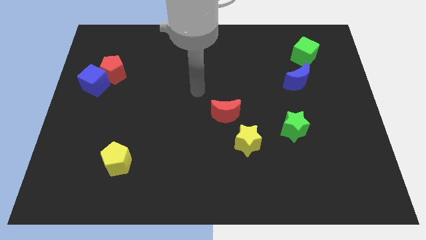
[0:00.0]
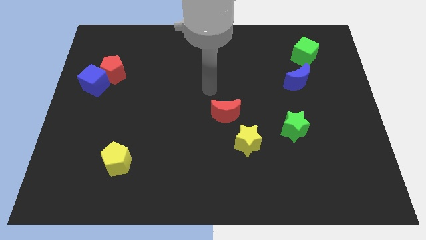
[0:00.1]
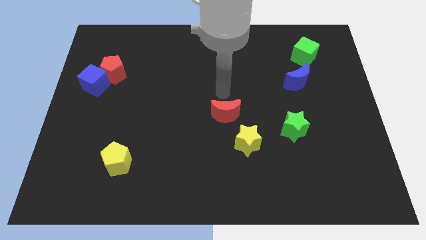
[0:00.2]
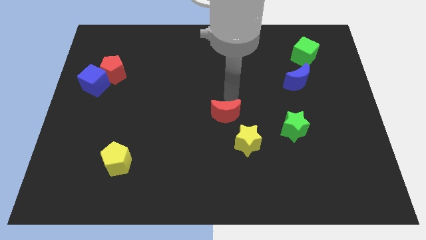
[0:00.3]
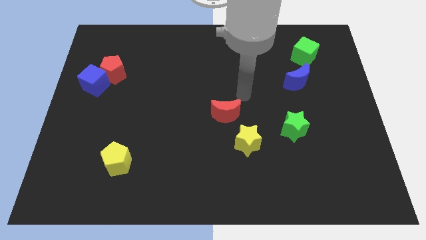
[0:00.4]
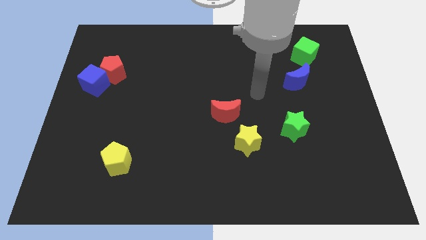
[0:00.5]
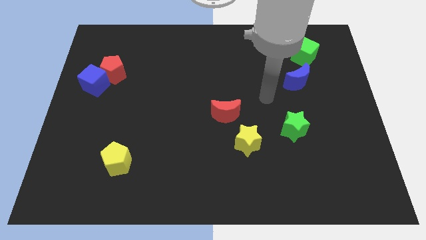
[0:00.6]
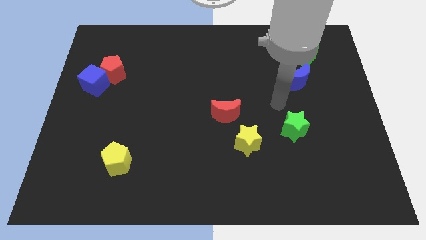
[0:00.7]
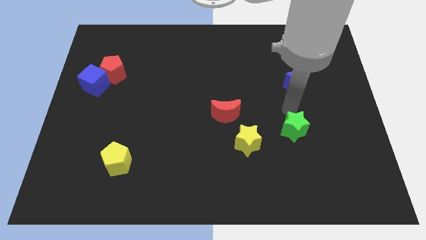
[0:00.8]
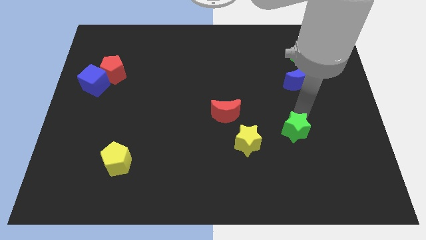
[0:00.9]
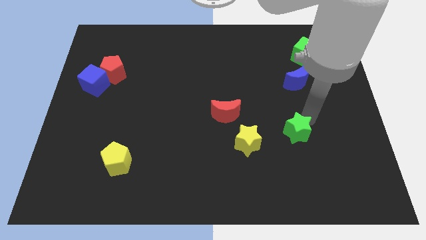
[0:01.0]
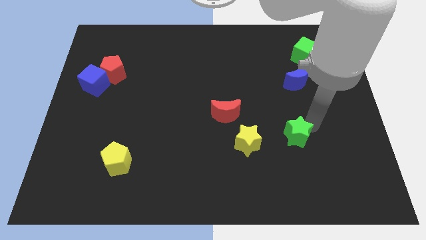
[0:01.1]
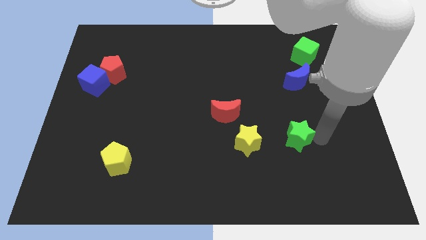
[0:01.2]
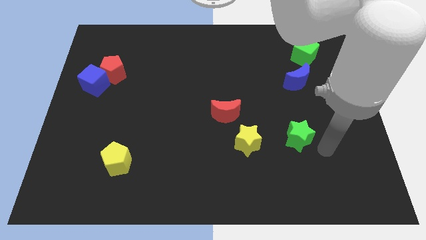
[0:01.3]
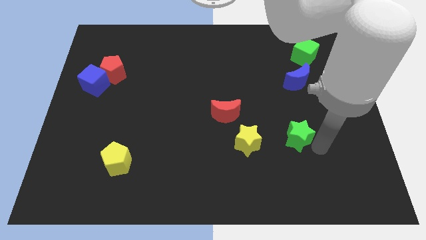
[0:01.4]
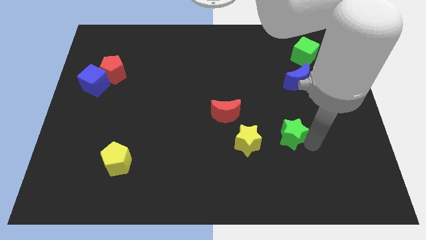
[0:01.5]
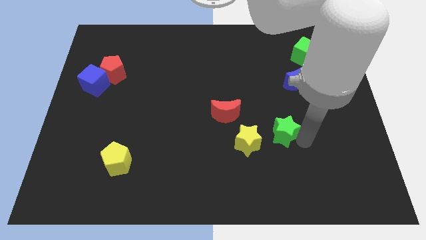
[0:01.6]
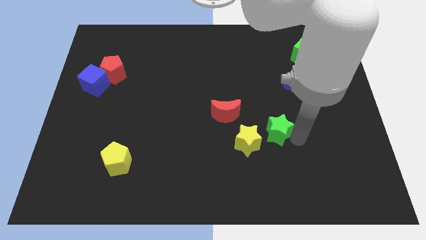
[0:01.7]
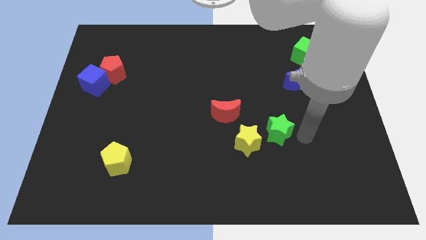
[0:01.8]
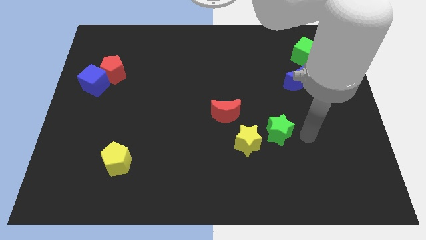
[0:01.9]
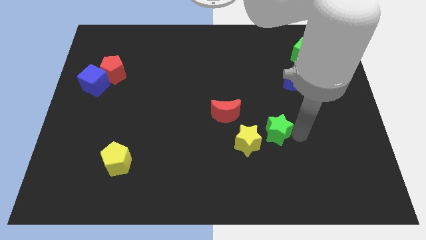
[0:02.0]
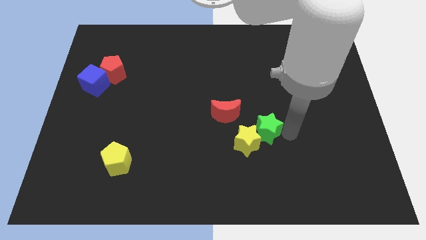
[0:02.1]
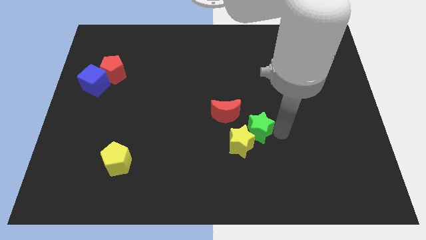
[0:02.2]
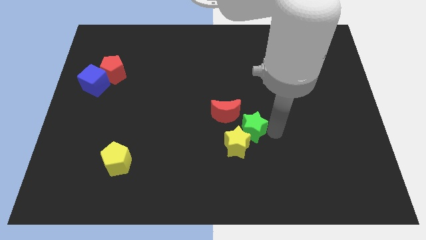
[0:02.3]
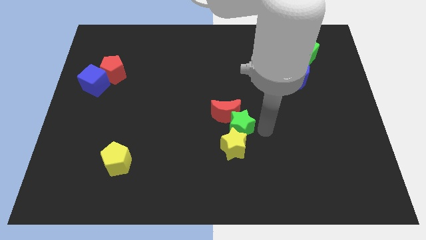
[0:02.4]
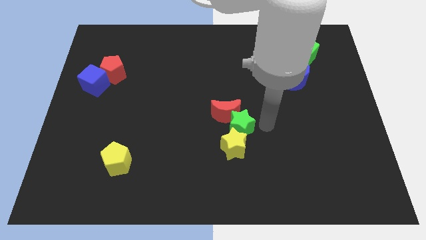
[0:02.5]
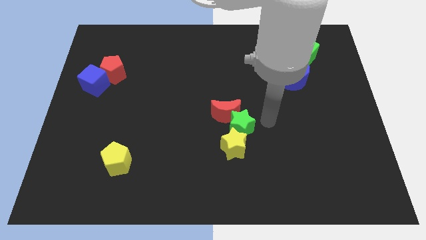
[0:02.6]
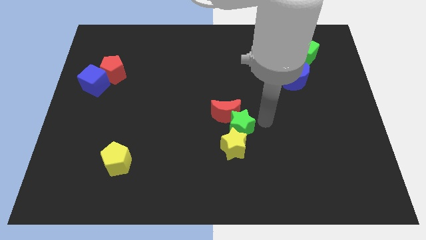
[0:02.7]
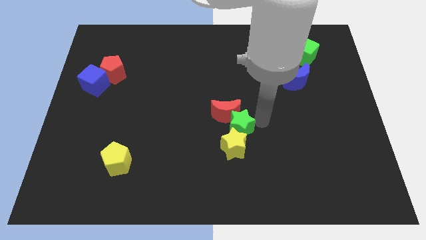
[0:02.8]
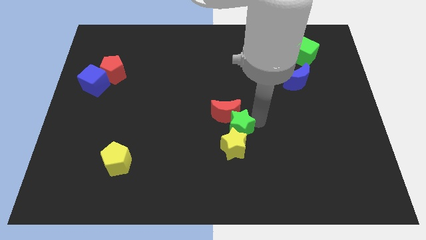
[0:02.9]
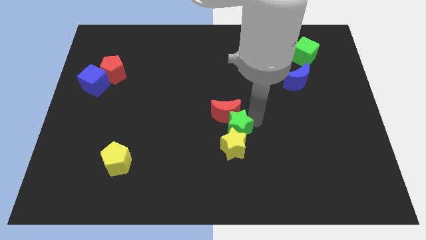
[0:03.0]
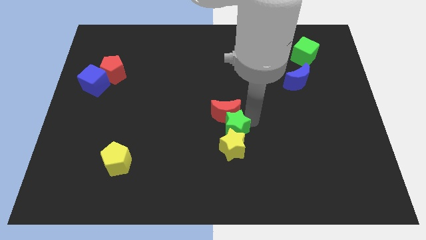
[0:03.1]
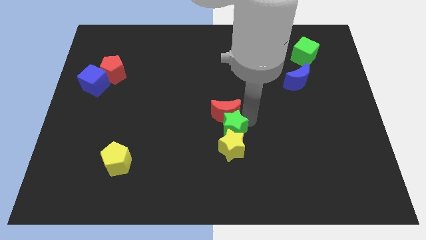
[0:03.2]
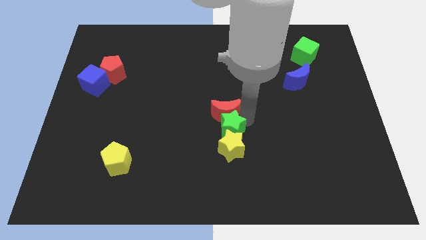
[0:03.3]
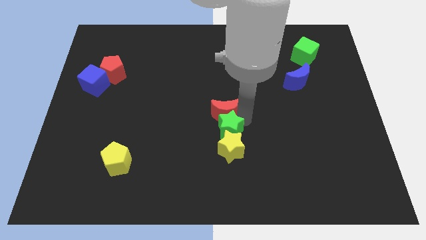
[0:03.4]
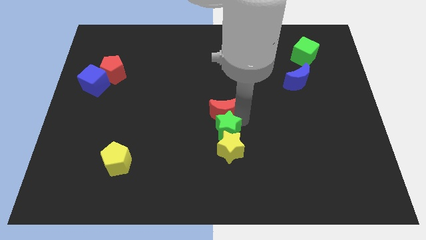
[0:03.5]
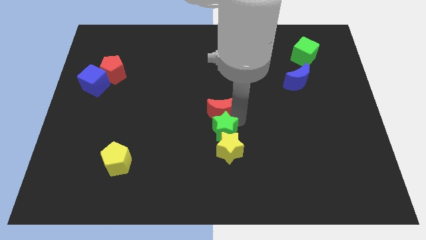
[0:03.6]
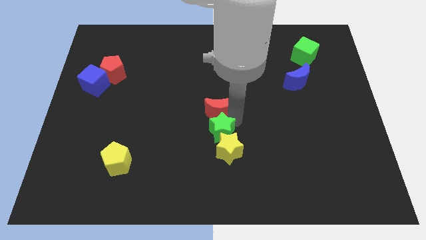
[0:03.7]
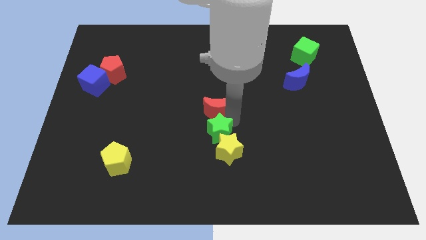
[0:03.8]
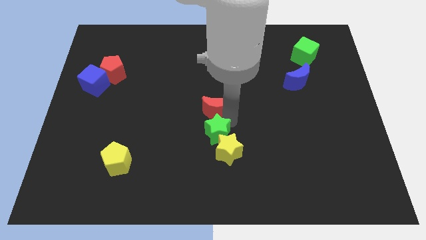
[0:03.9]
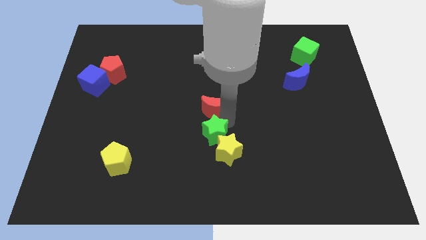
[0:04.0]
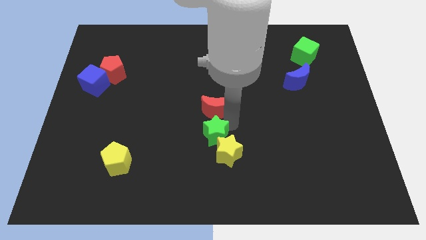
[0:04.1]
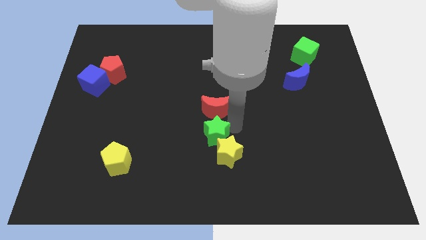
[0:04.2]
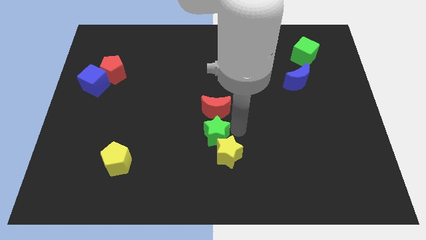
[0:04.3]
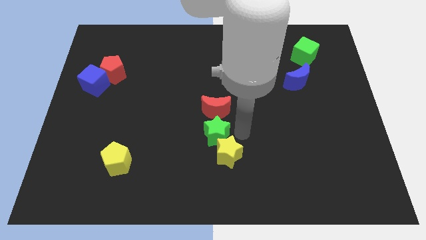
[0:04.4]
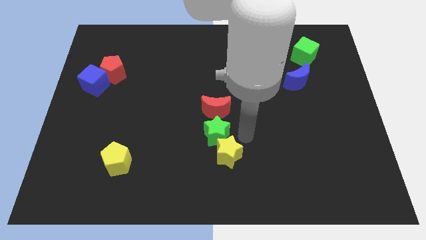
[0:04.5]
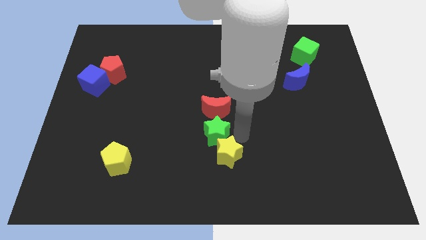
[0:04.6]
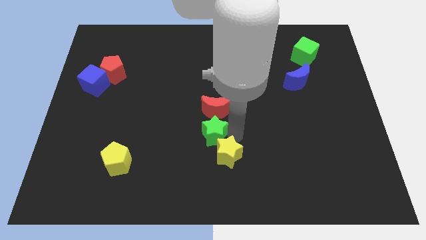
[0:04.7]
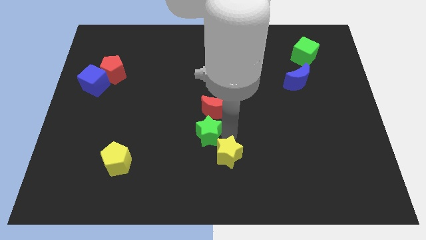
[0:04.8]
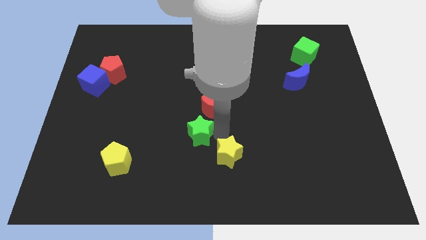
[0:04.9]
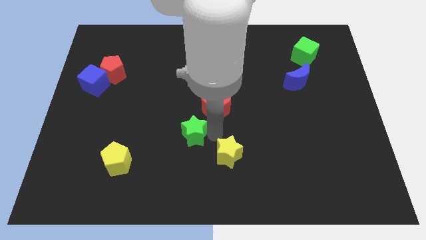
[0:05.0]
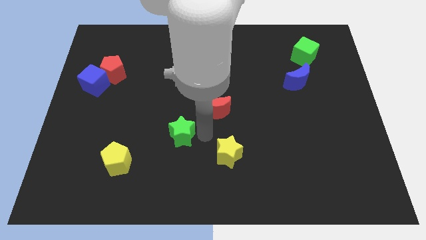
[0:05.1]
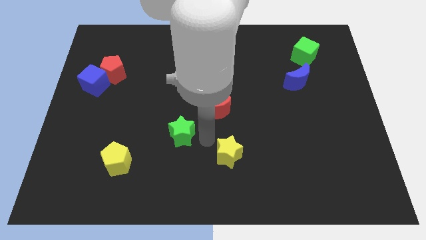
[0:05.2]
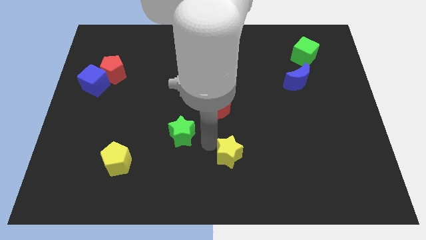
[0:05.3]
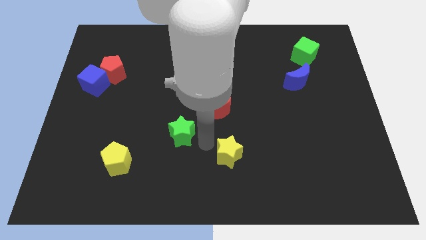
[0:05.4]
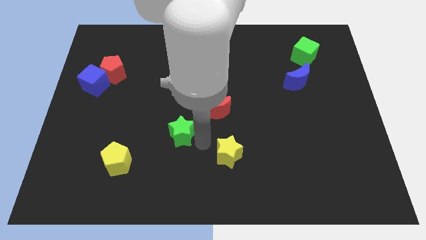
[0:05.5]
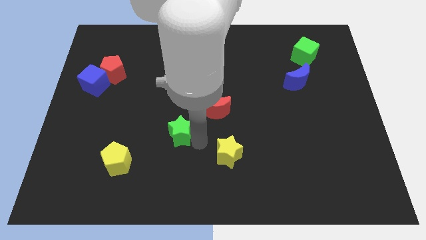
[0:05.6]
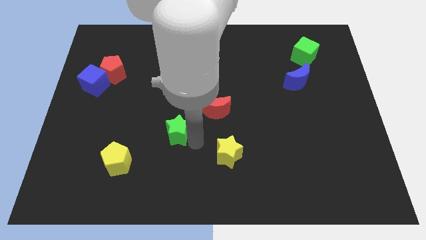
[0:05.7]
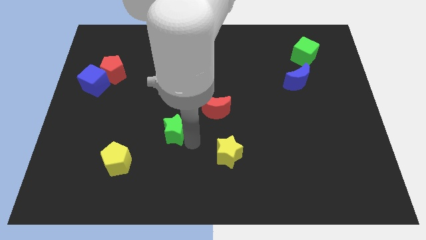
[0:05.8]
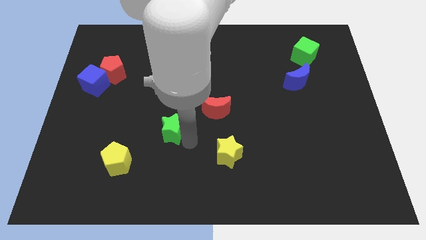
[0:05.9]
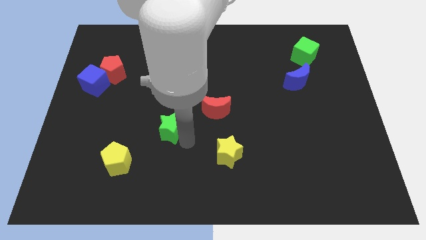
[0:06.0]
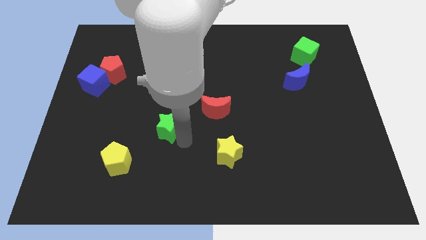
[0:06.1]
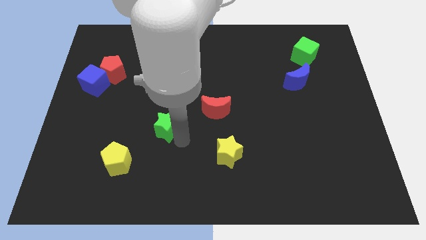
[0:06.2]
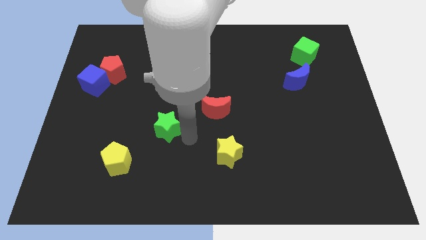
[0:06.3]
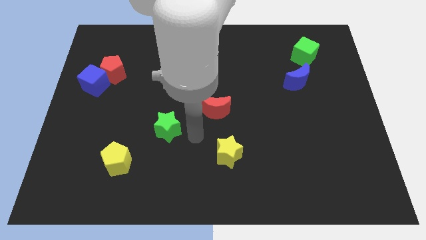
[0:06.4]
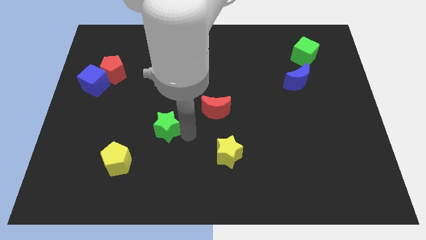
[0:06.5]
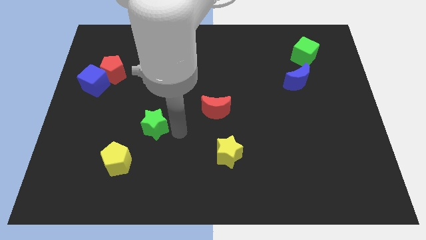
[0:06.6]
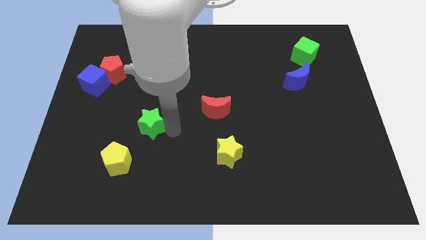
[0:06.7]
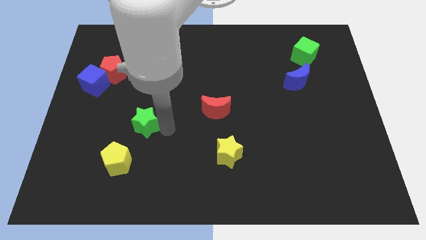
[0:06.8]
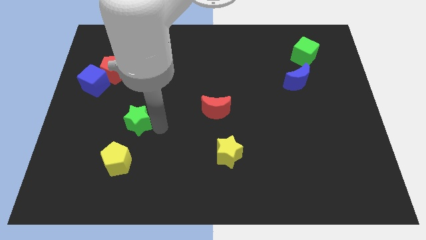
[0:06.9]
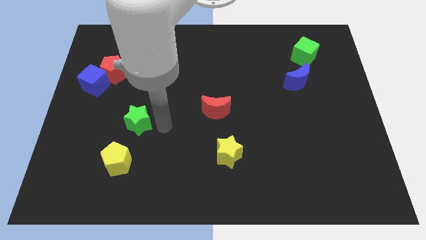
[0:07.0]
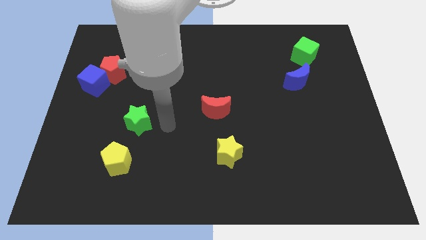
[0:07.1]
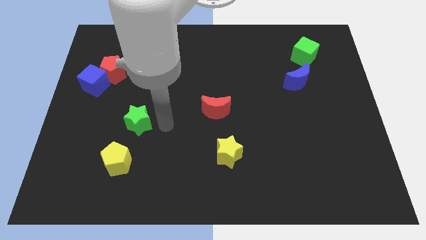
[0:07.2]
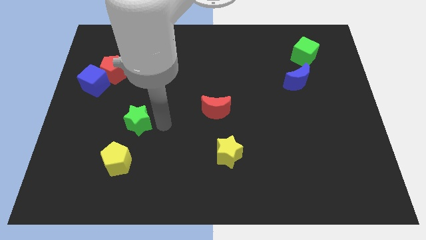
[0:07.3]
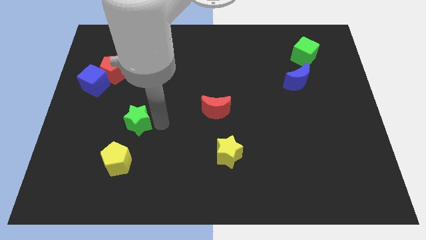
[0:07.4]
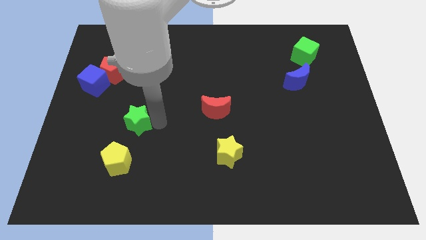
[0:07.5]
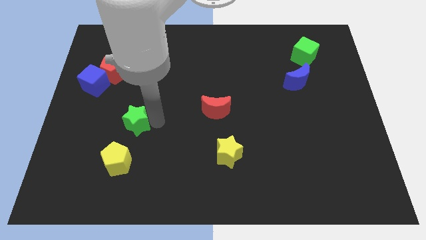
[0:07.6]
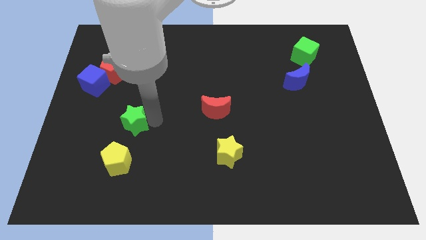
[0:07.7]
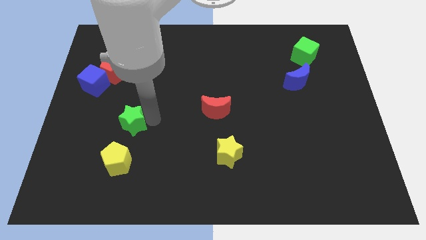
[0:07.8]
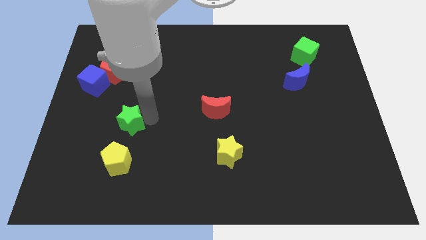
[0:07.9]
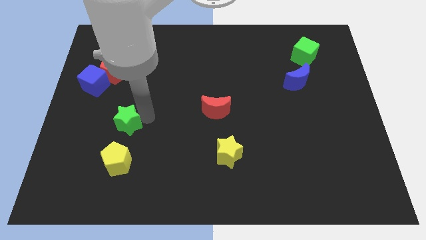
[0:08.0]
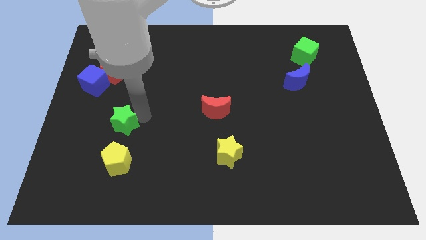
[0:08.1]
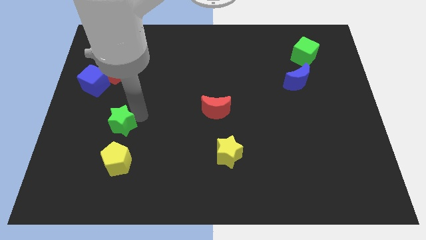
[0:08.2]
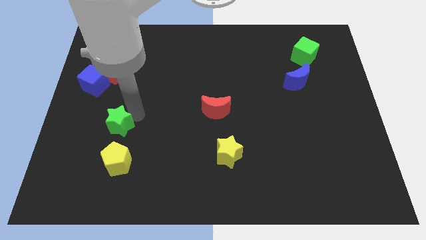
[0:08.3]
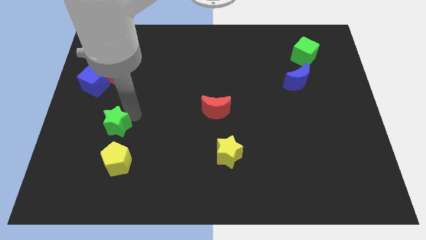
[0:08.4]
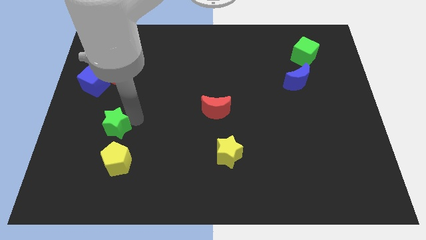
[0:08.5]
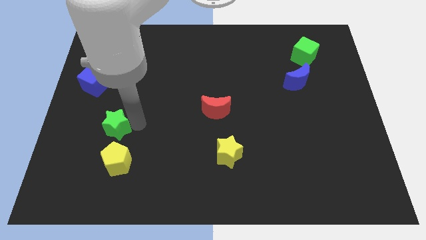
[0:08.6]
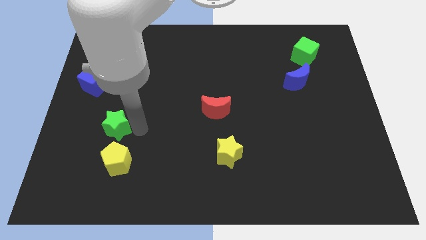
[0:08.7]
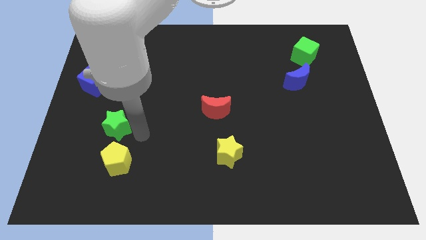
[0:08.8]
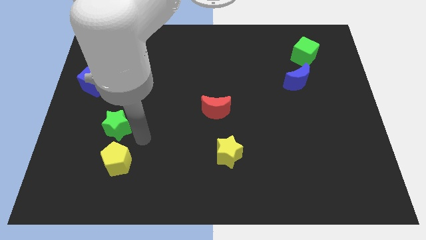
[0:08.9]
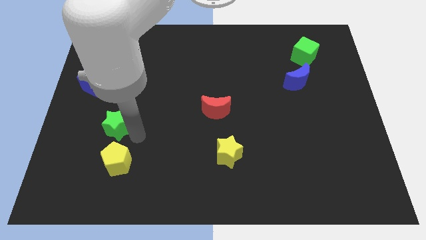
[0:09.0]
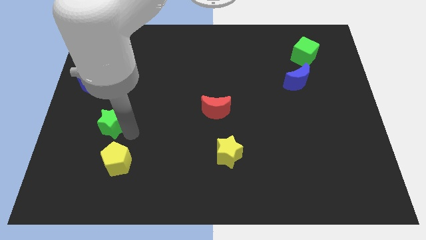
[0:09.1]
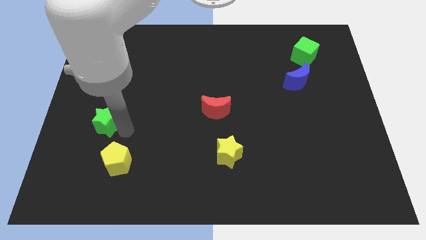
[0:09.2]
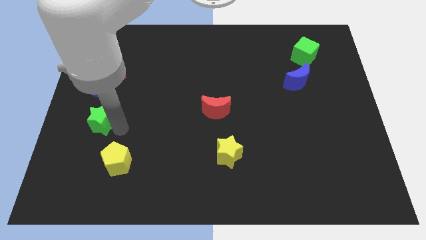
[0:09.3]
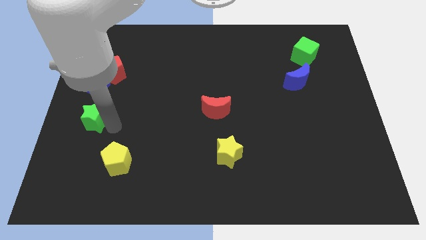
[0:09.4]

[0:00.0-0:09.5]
push the green star to the left side
